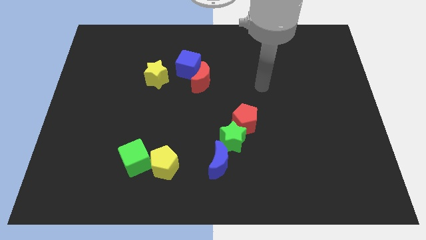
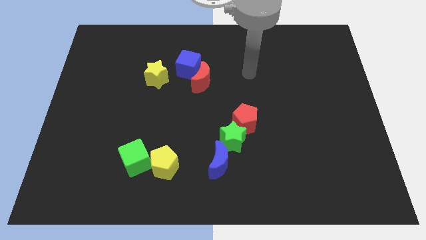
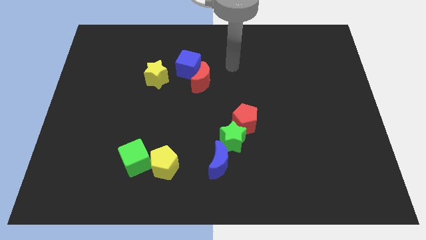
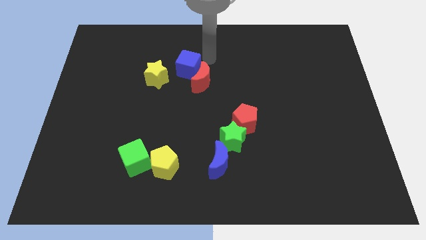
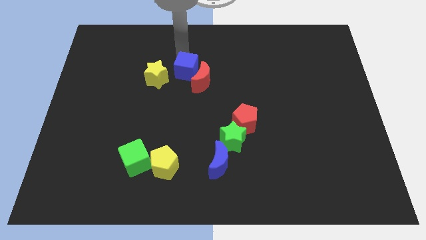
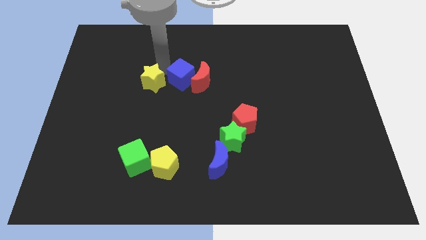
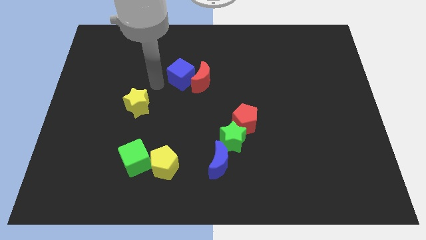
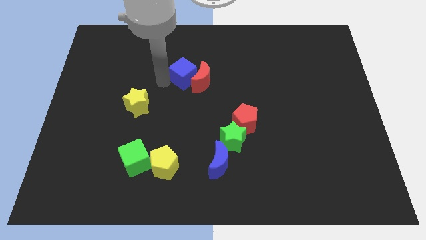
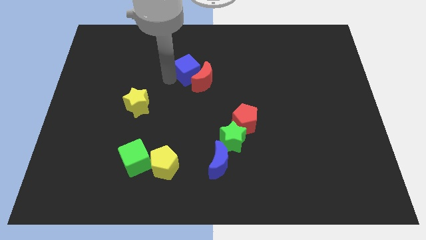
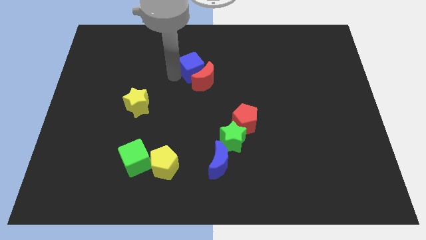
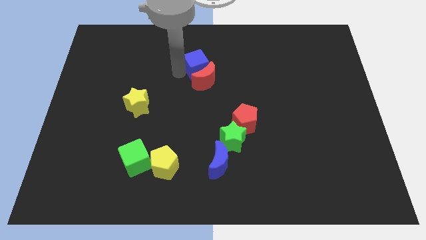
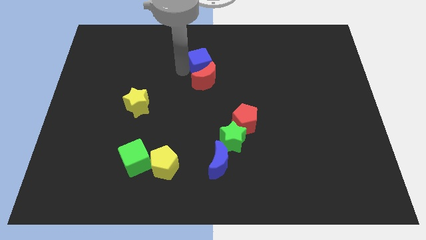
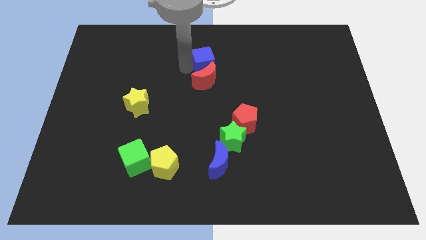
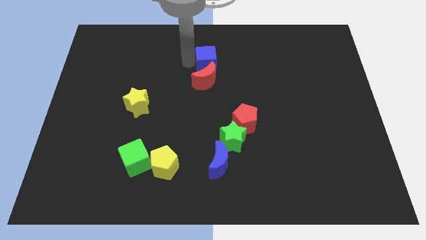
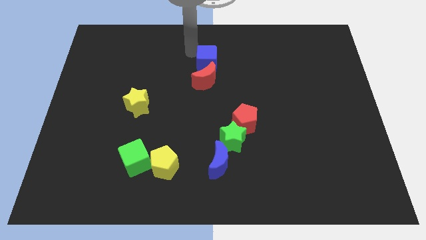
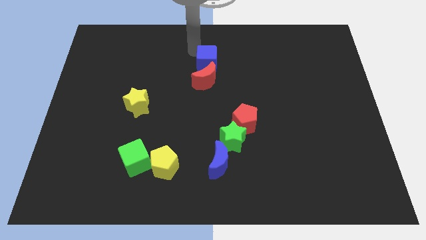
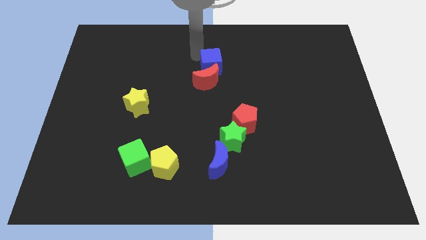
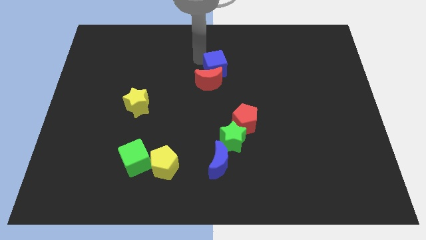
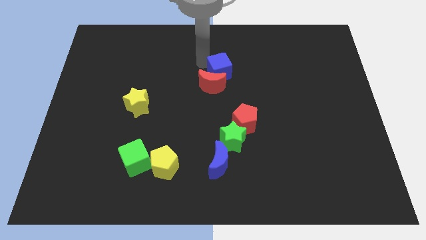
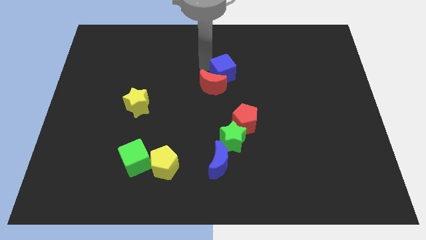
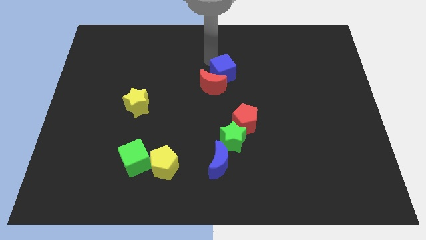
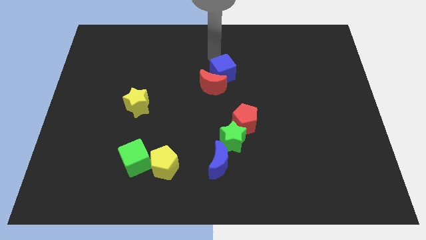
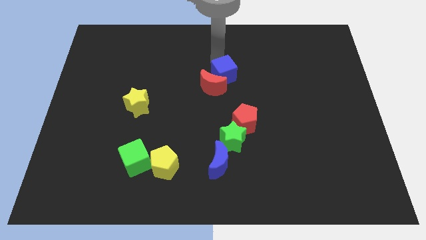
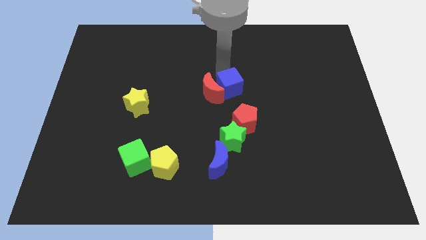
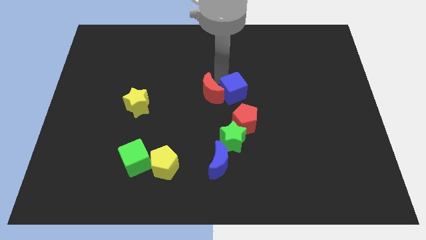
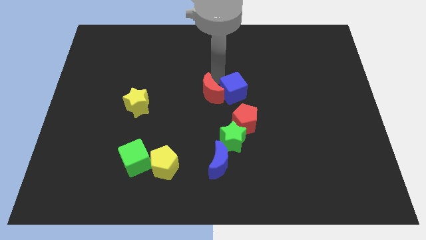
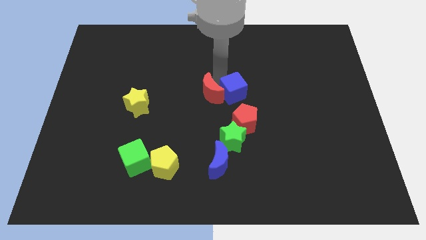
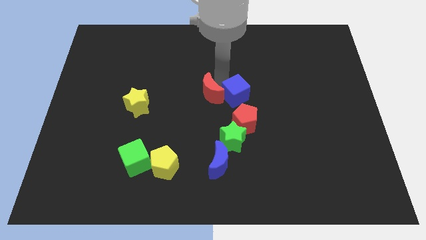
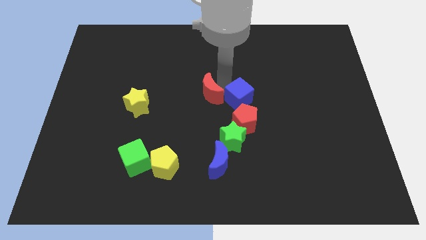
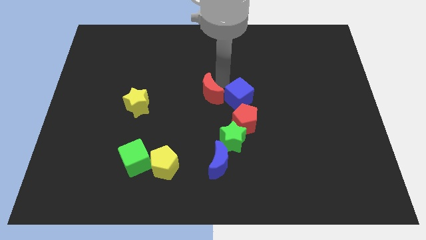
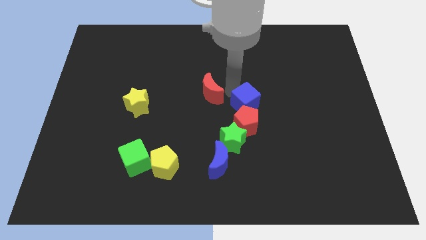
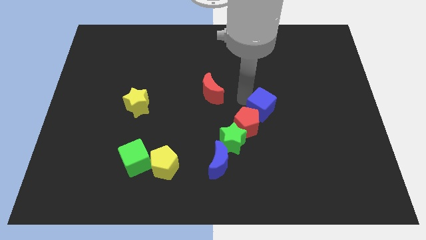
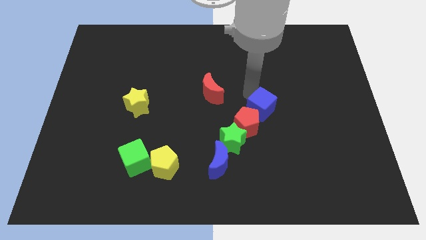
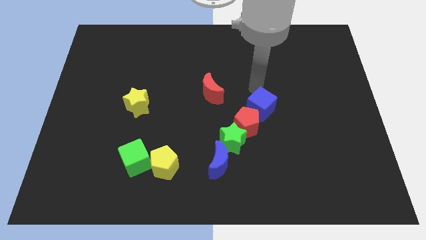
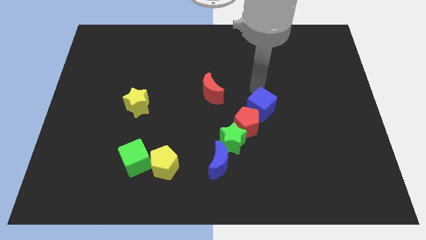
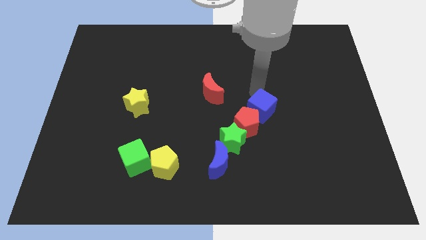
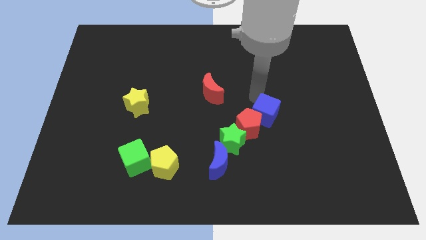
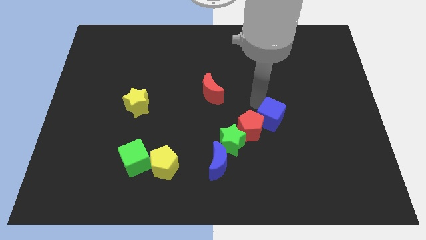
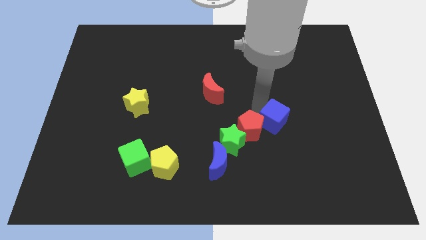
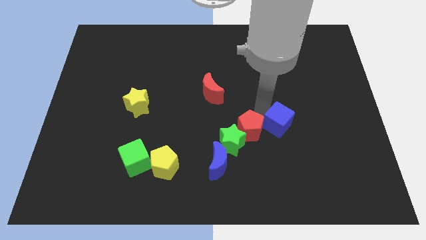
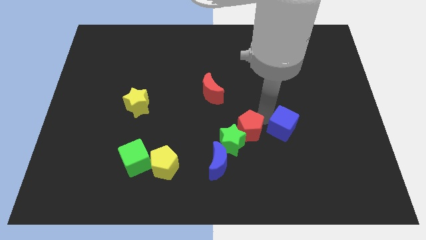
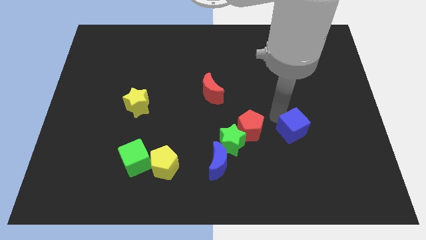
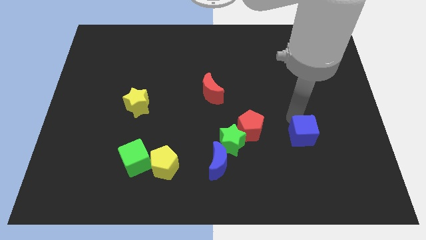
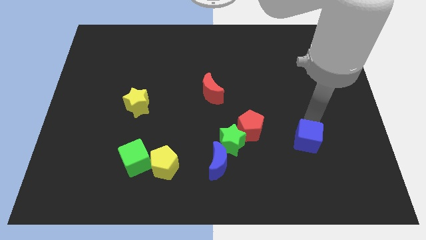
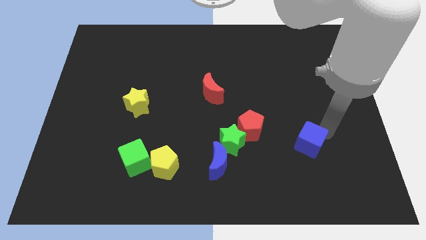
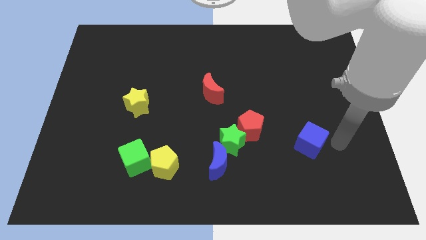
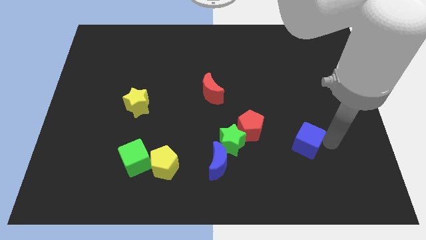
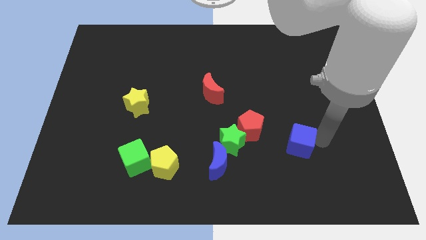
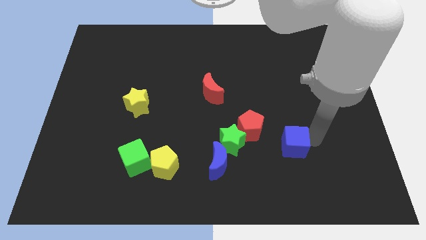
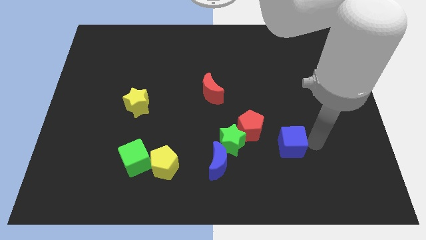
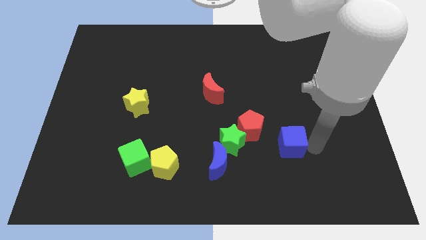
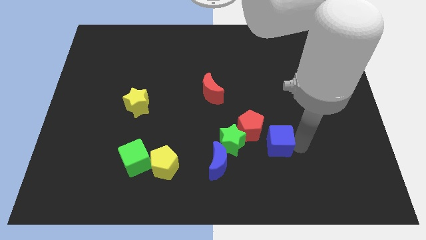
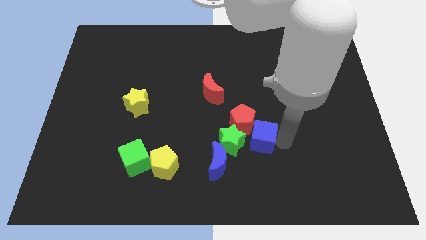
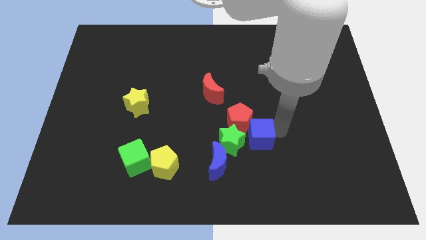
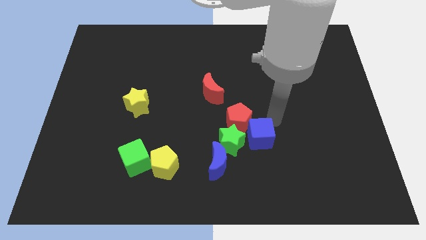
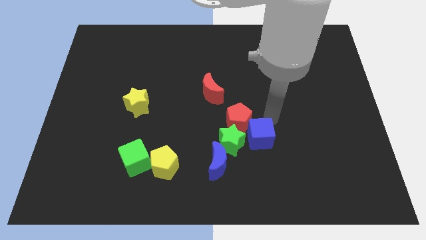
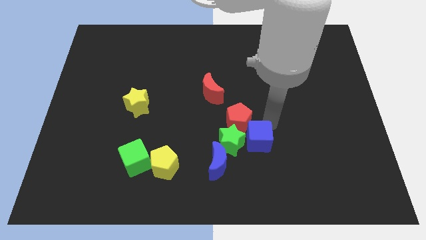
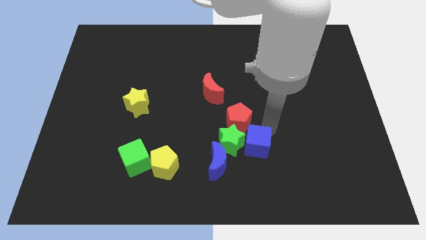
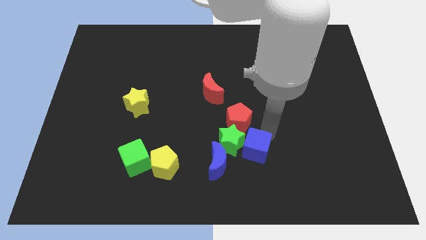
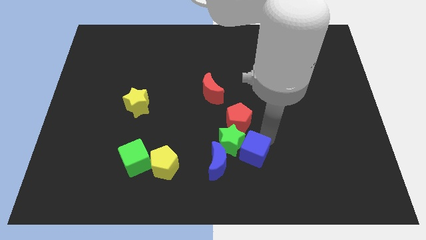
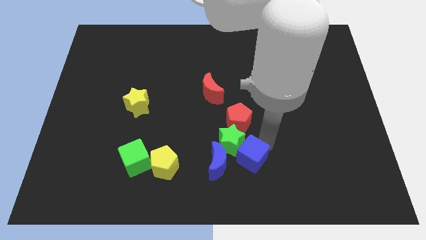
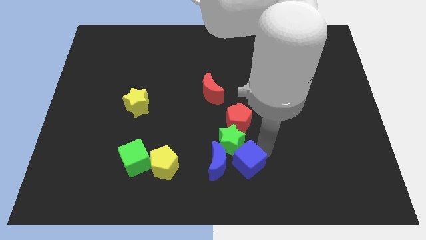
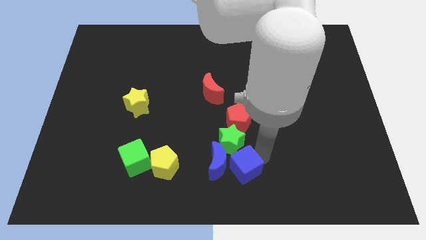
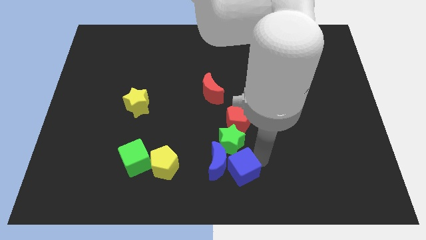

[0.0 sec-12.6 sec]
move the blue cube to the right side of the yellow pentagon

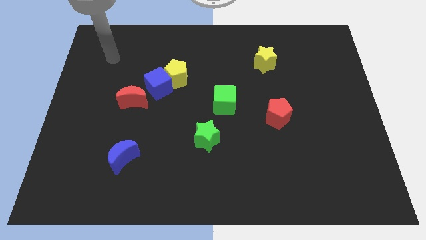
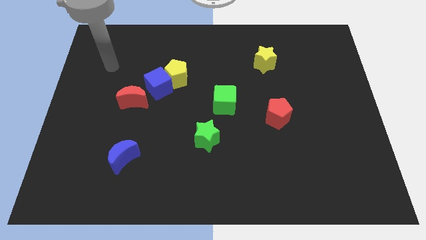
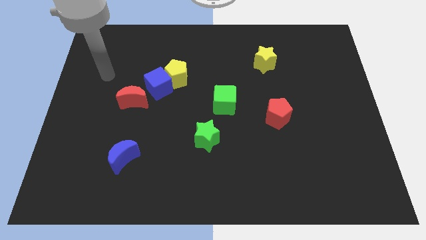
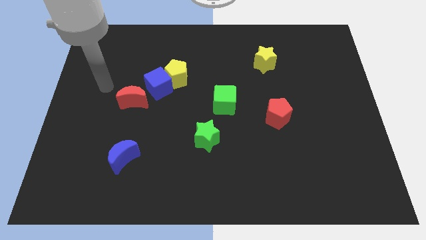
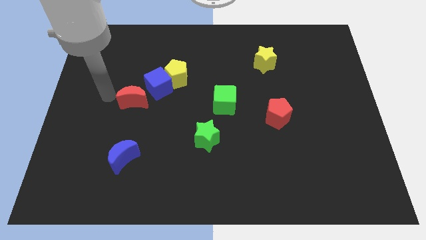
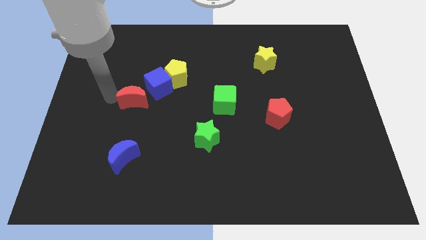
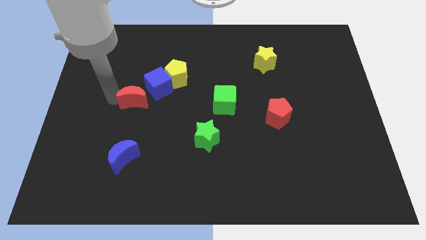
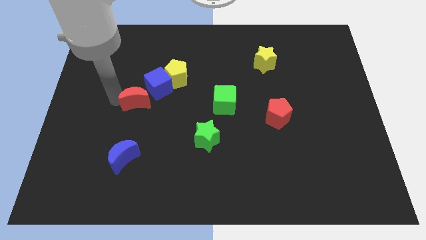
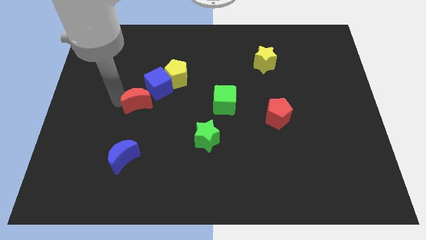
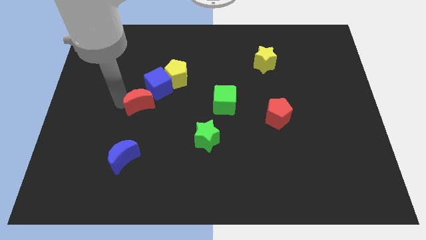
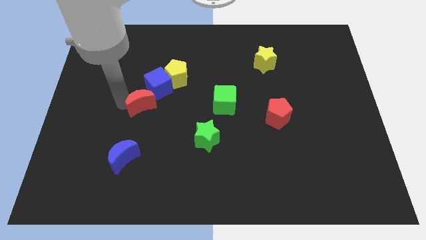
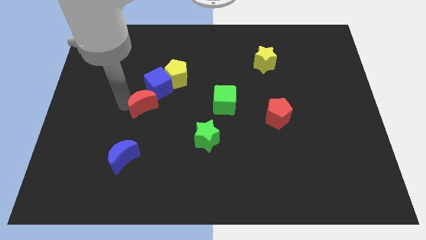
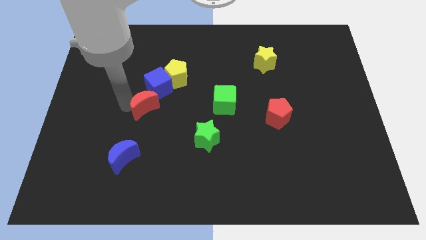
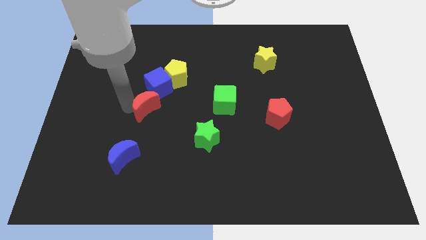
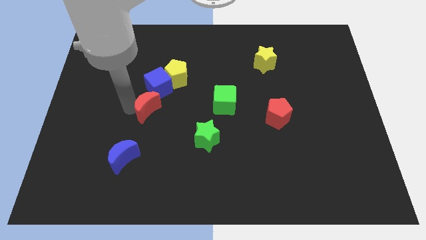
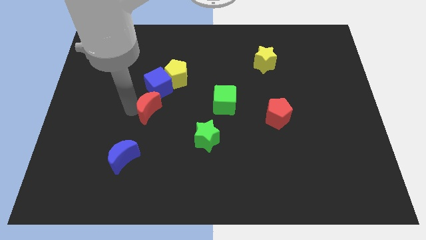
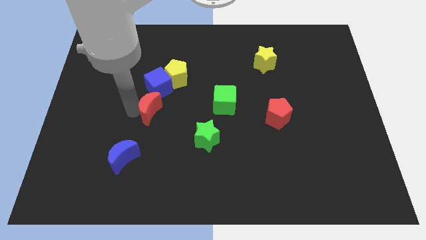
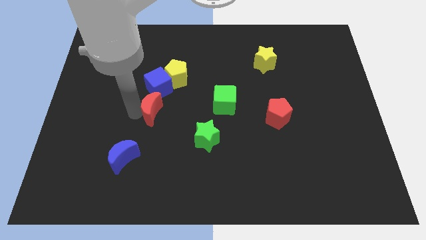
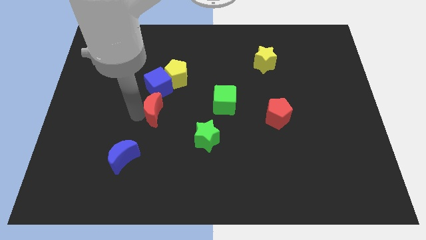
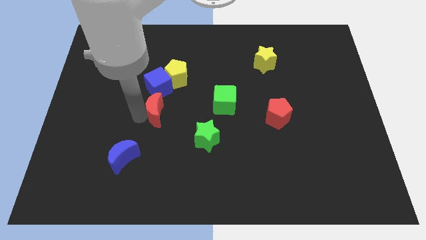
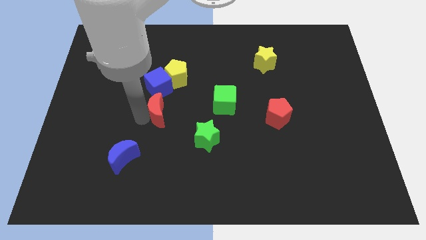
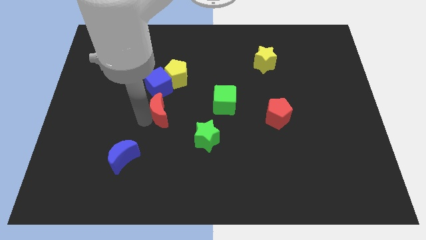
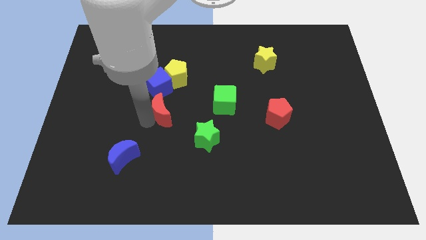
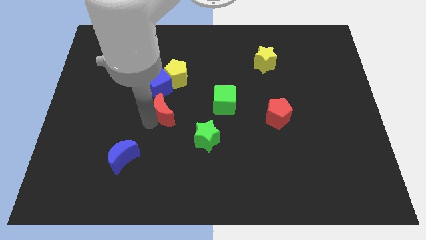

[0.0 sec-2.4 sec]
push the red moon diagonally down and to the right of the blue cube
